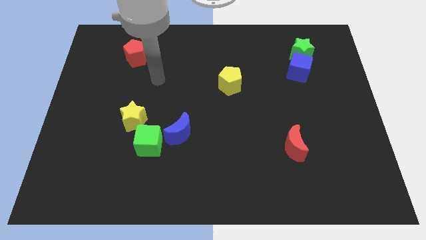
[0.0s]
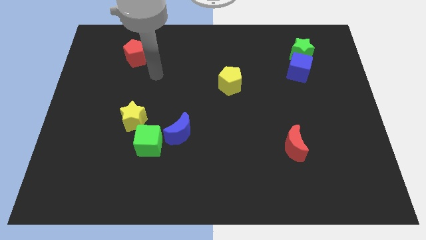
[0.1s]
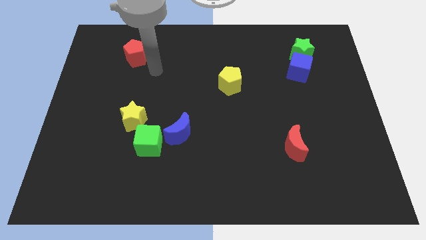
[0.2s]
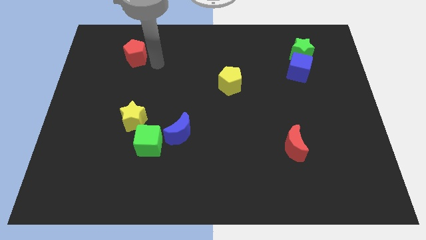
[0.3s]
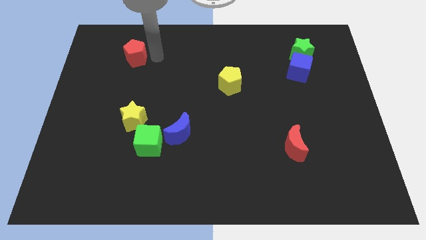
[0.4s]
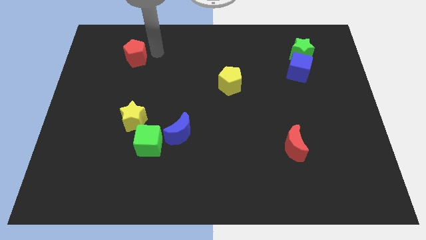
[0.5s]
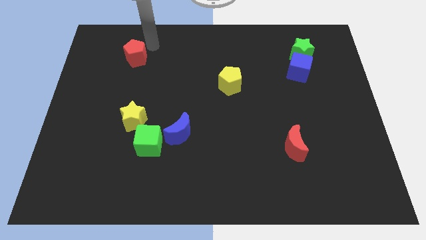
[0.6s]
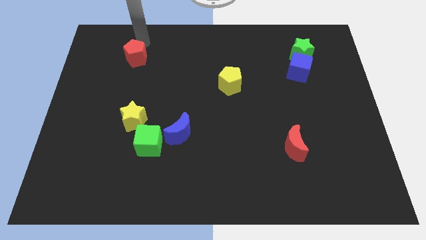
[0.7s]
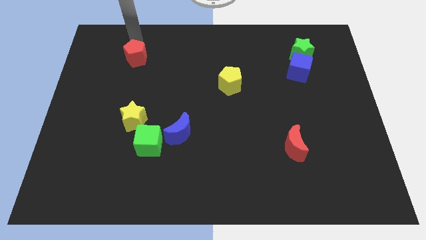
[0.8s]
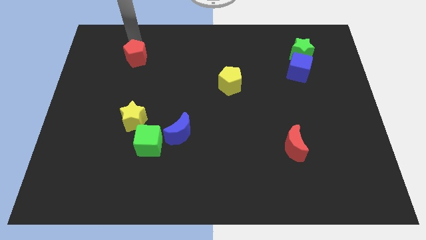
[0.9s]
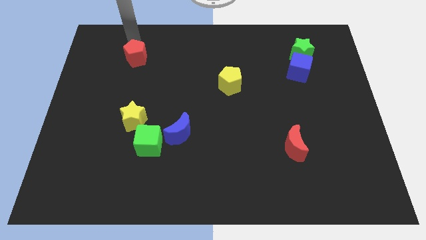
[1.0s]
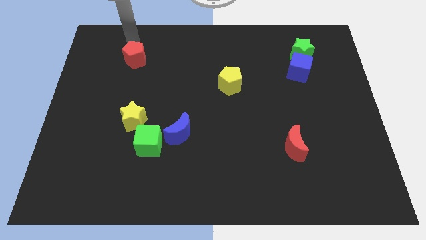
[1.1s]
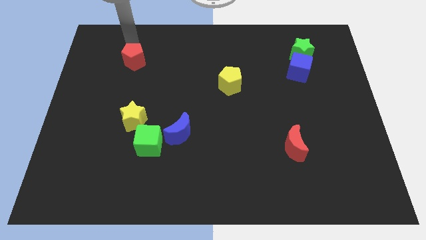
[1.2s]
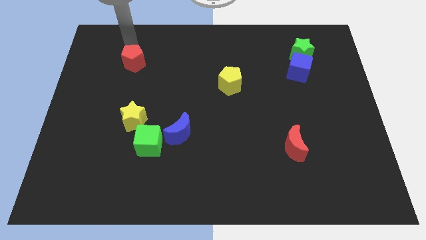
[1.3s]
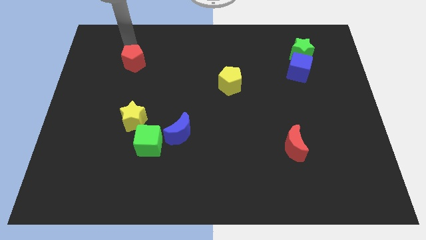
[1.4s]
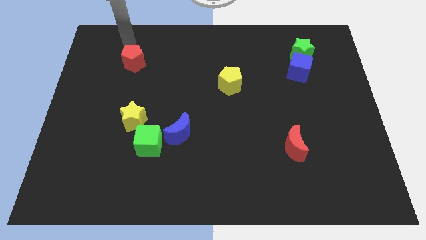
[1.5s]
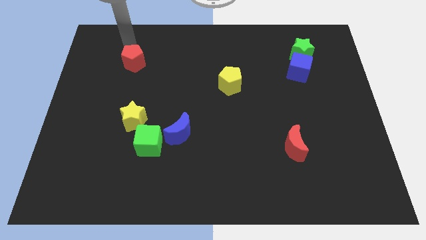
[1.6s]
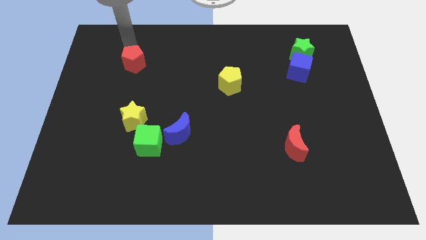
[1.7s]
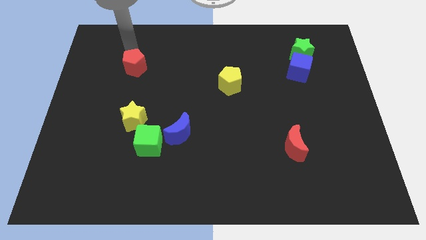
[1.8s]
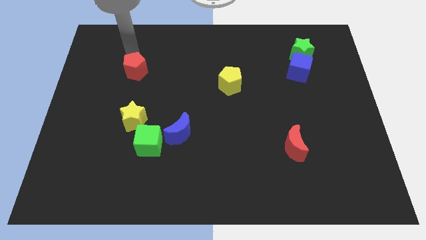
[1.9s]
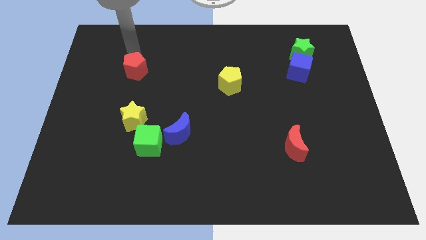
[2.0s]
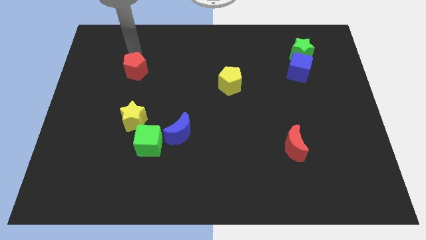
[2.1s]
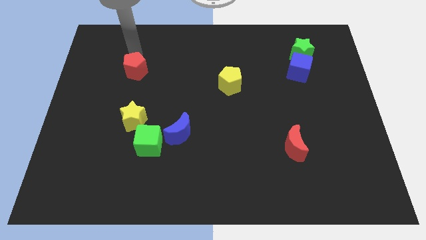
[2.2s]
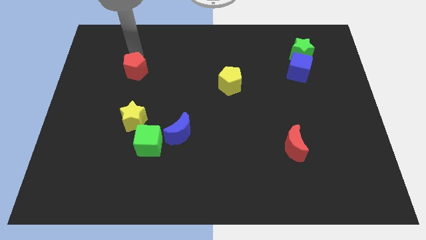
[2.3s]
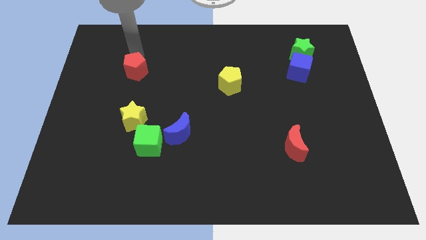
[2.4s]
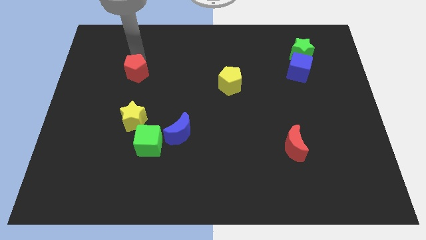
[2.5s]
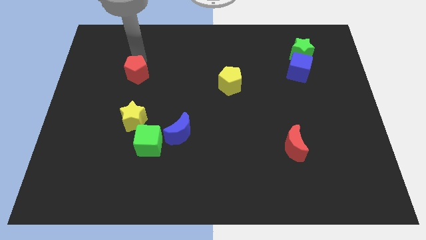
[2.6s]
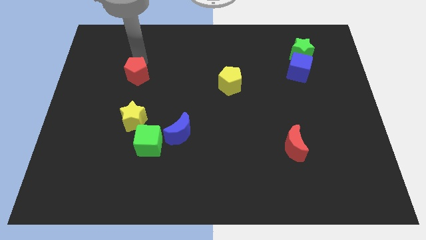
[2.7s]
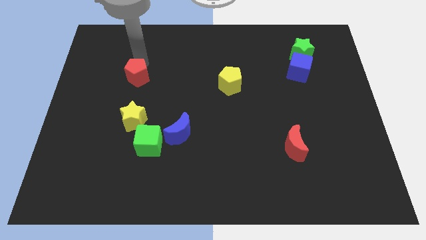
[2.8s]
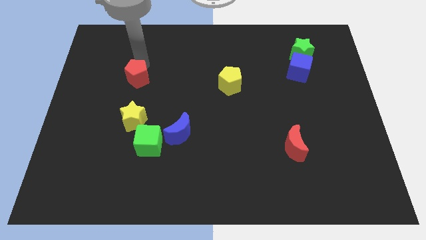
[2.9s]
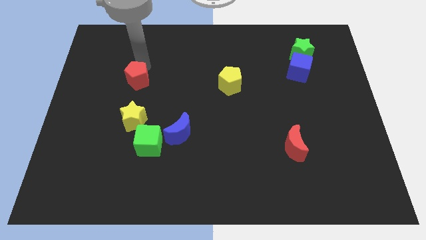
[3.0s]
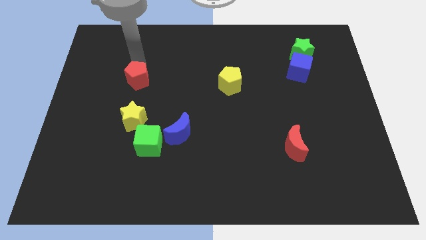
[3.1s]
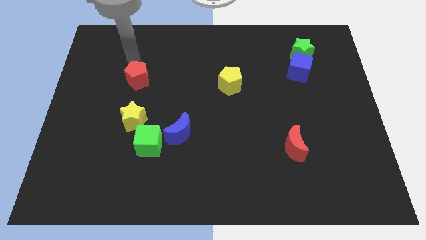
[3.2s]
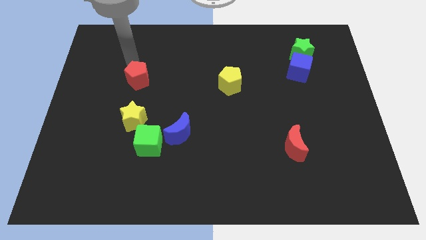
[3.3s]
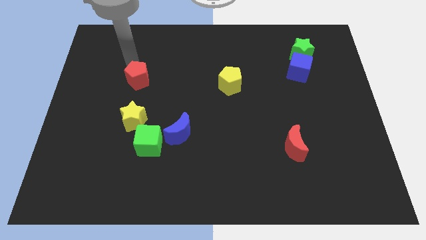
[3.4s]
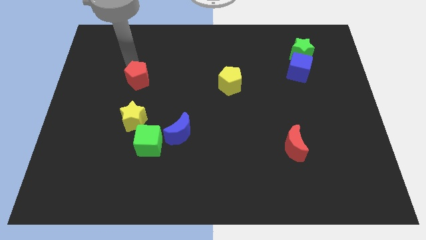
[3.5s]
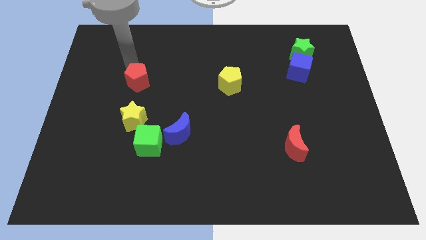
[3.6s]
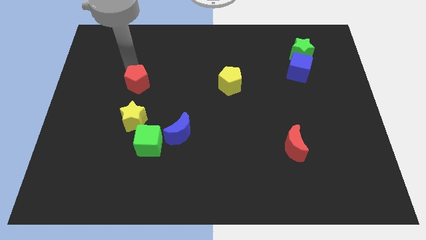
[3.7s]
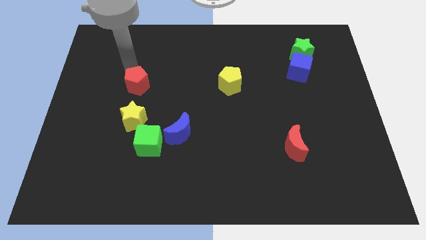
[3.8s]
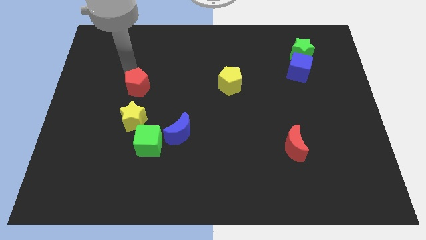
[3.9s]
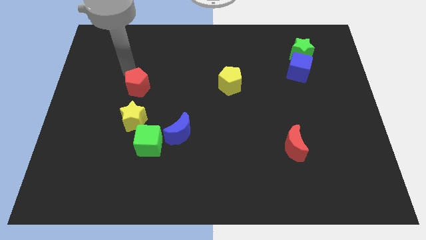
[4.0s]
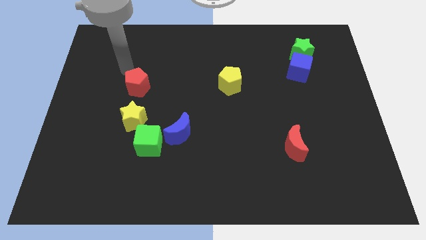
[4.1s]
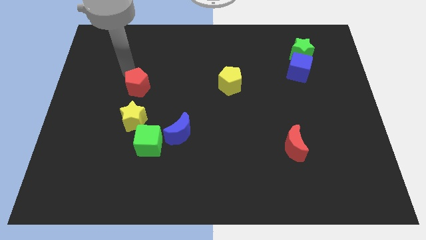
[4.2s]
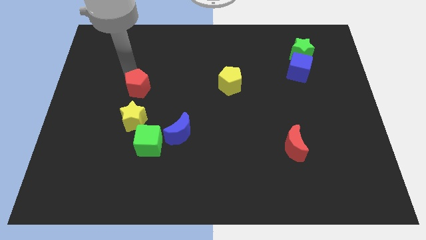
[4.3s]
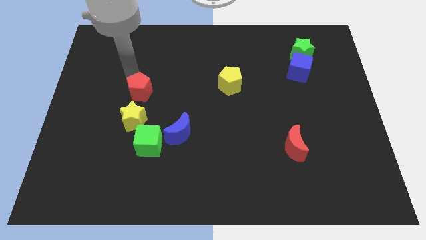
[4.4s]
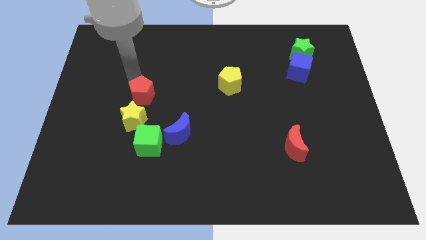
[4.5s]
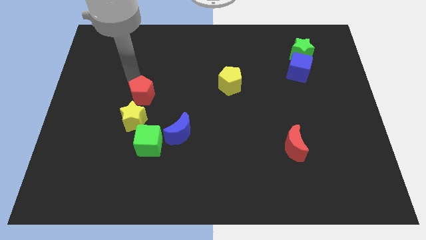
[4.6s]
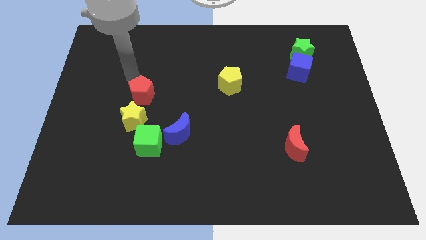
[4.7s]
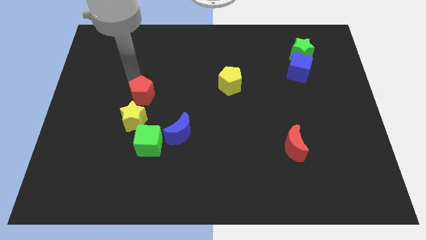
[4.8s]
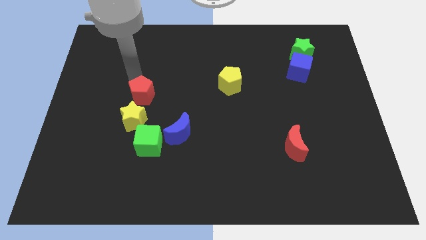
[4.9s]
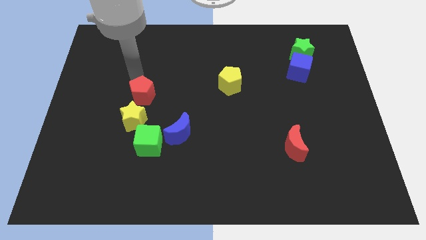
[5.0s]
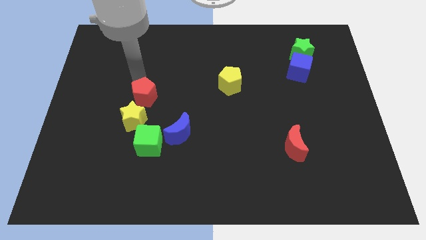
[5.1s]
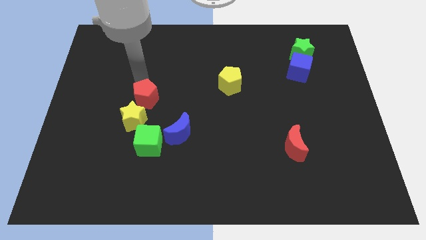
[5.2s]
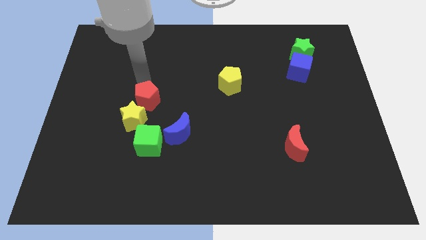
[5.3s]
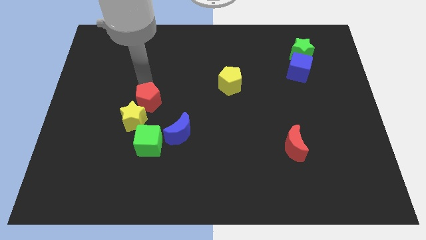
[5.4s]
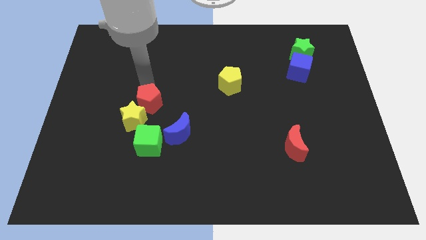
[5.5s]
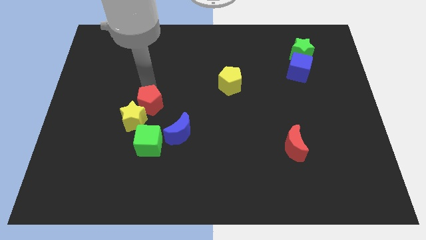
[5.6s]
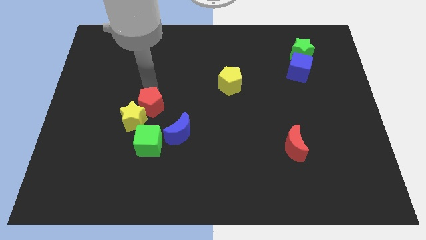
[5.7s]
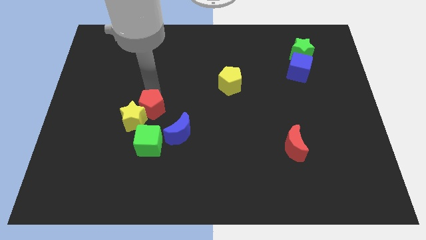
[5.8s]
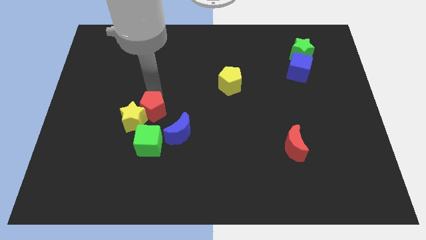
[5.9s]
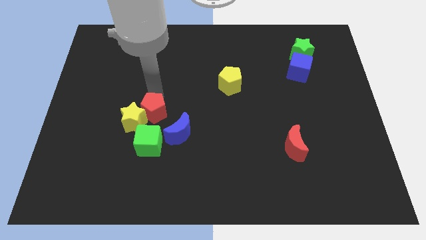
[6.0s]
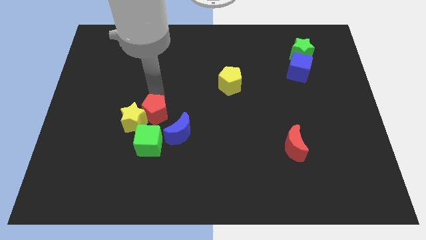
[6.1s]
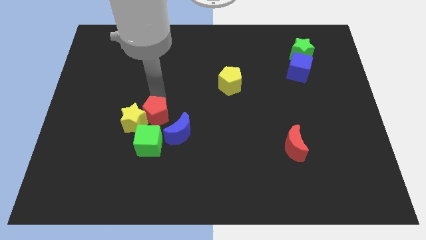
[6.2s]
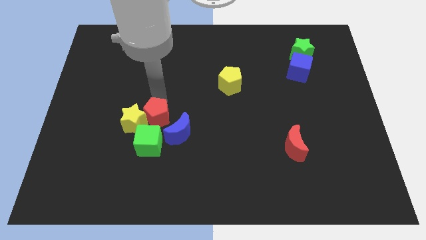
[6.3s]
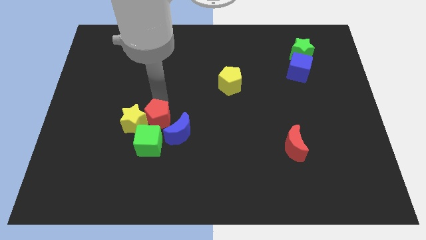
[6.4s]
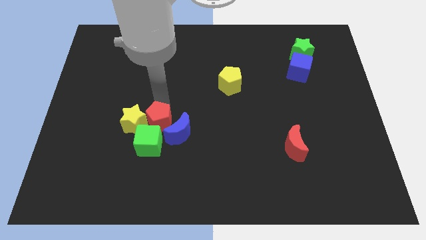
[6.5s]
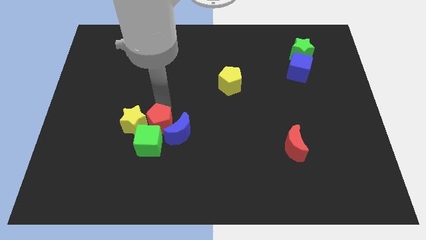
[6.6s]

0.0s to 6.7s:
slide the red pentagon to the green cube

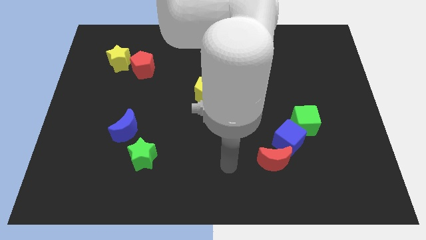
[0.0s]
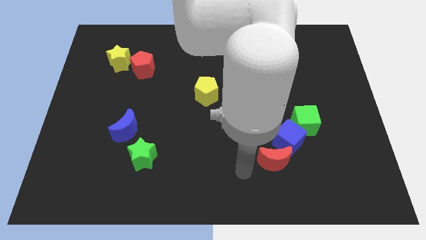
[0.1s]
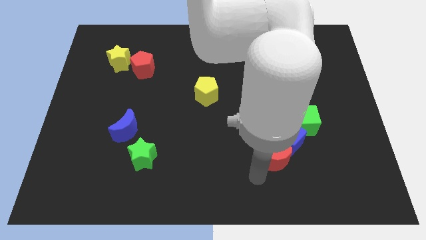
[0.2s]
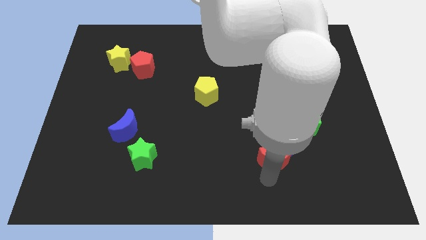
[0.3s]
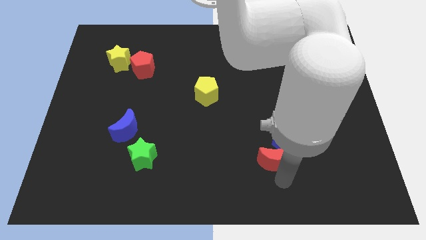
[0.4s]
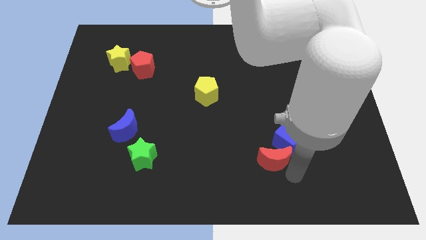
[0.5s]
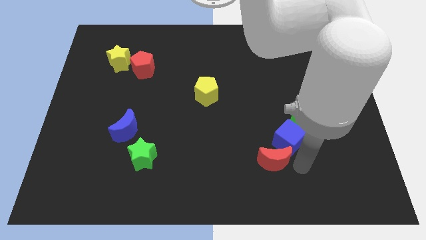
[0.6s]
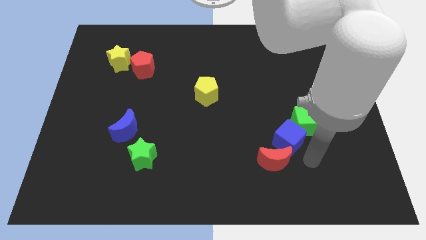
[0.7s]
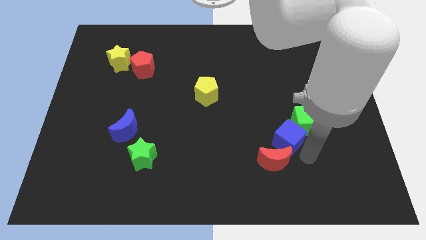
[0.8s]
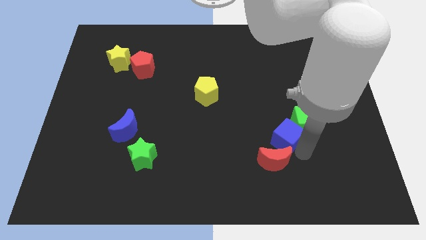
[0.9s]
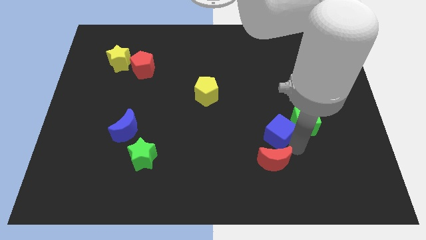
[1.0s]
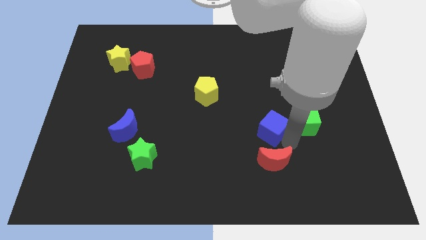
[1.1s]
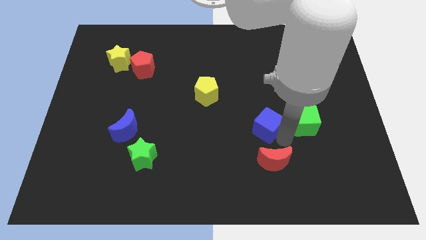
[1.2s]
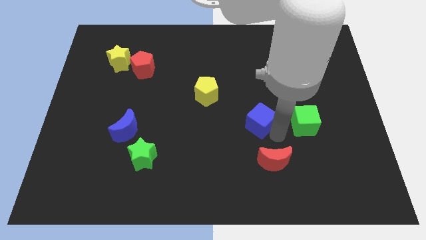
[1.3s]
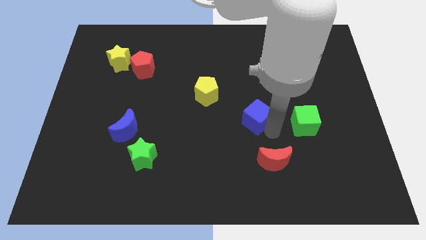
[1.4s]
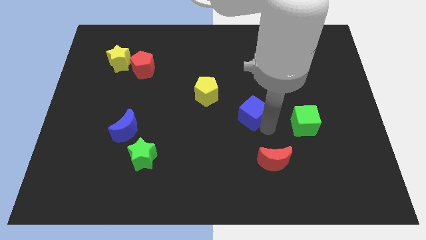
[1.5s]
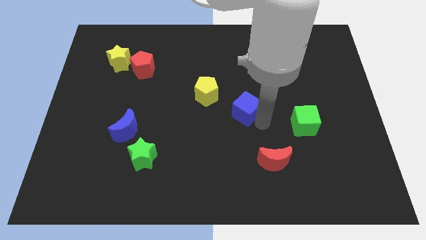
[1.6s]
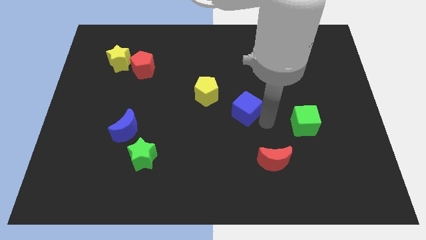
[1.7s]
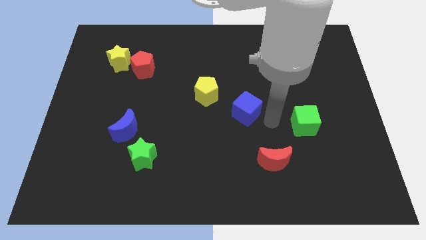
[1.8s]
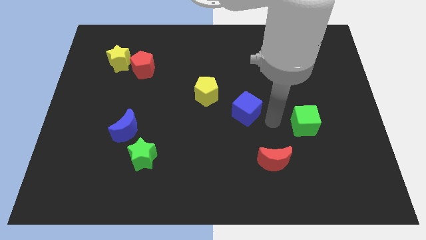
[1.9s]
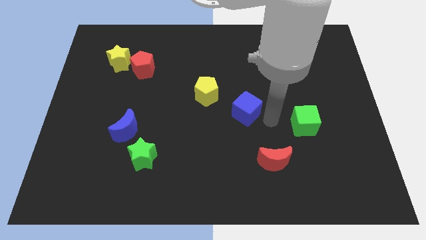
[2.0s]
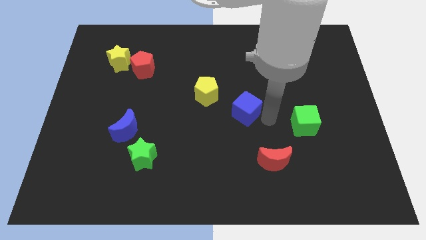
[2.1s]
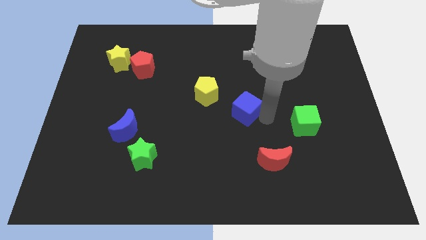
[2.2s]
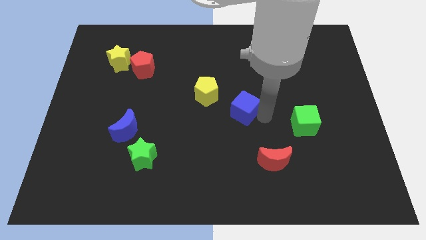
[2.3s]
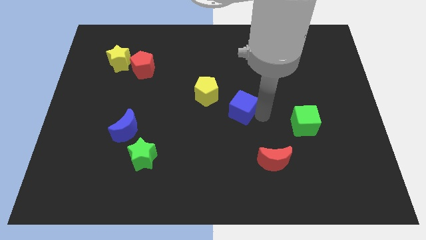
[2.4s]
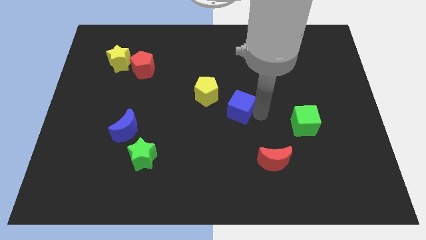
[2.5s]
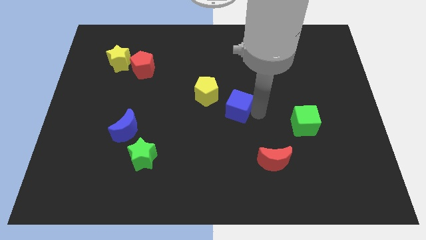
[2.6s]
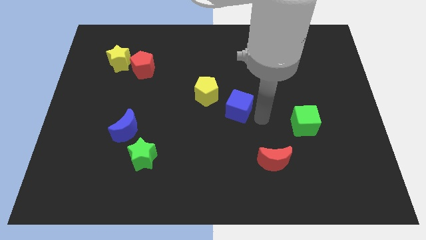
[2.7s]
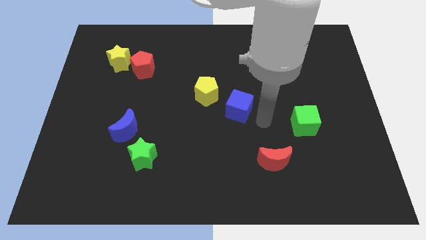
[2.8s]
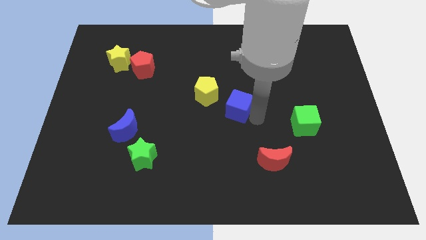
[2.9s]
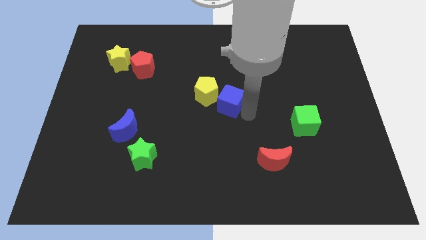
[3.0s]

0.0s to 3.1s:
put the blue cube towards the yellow pentagon
